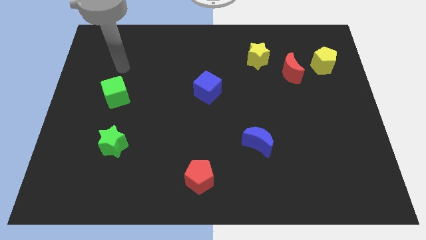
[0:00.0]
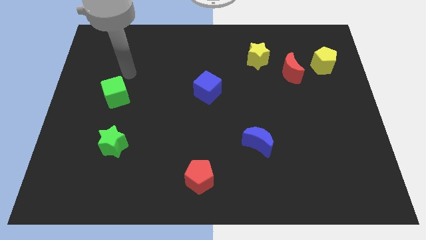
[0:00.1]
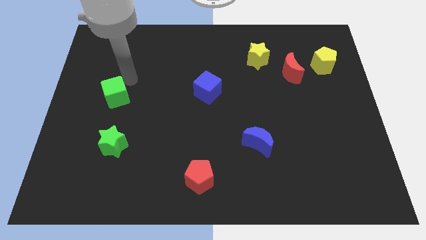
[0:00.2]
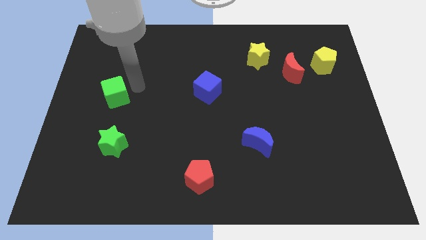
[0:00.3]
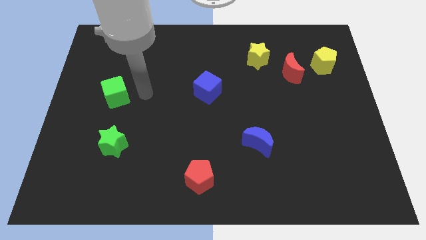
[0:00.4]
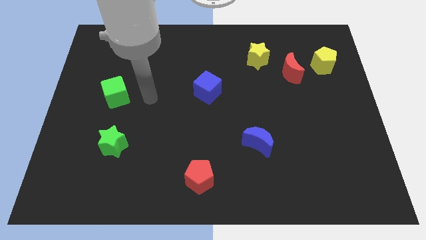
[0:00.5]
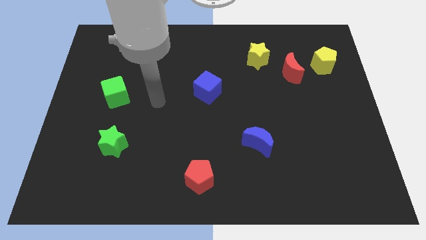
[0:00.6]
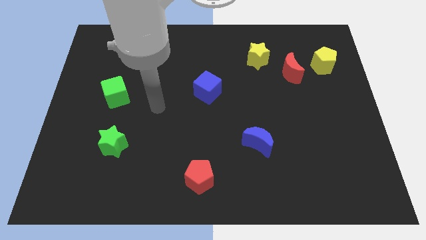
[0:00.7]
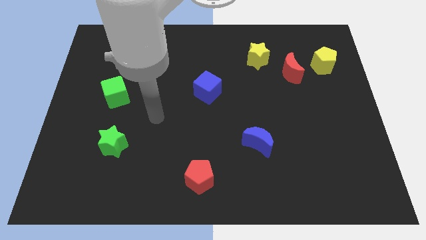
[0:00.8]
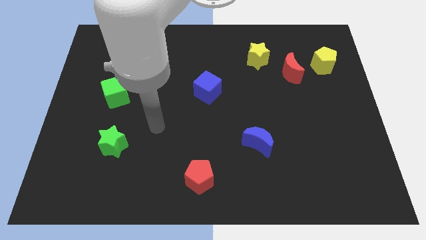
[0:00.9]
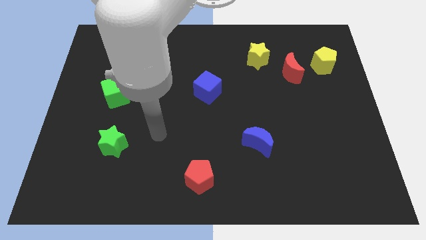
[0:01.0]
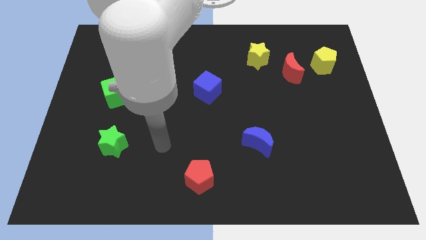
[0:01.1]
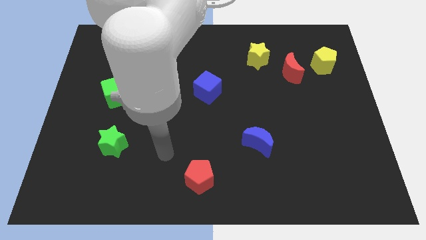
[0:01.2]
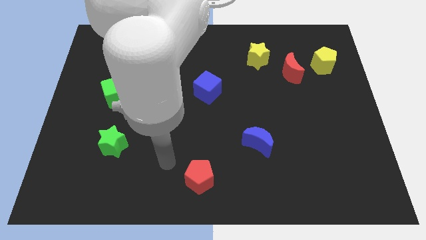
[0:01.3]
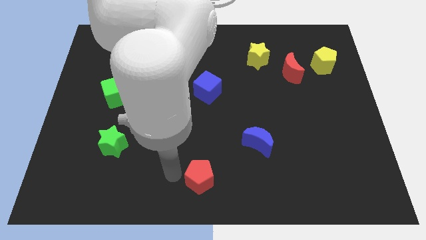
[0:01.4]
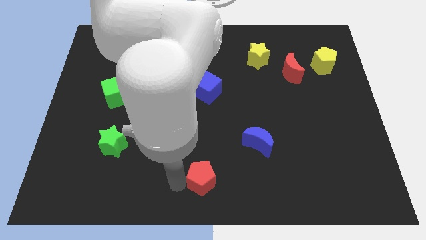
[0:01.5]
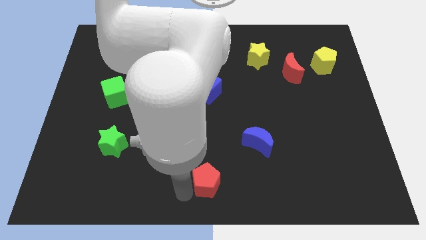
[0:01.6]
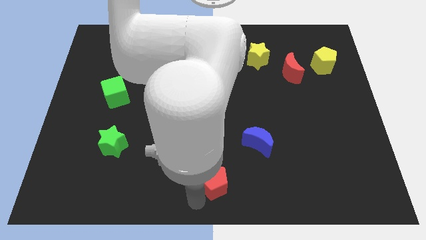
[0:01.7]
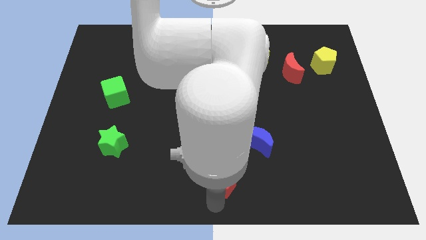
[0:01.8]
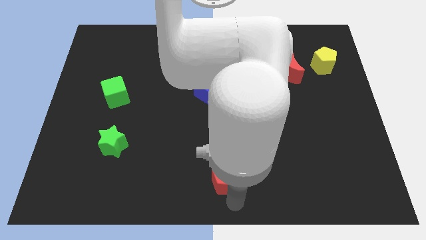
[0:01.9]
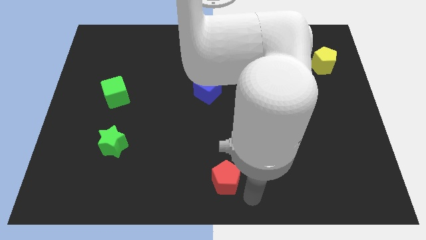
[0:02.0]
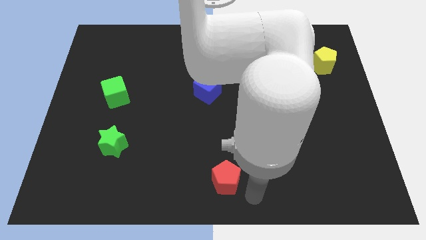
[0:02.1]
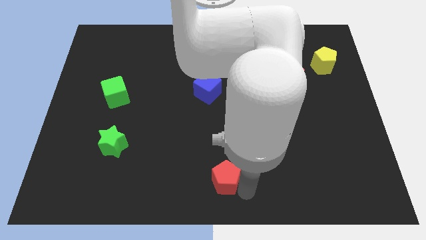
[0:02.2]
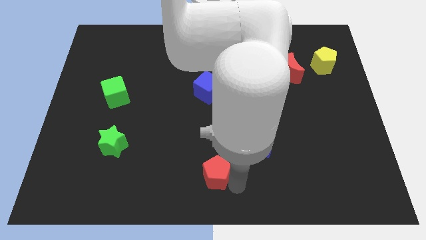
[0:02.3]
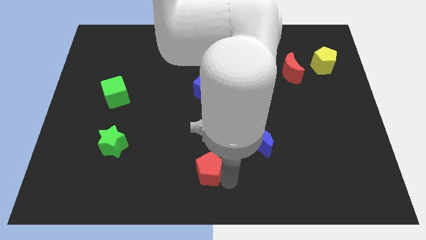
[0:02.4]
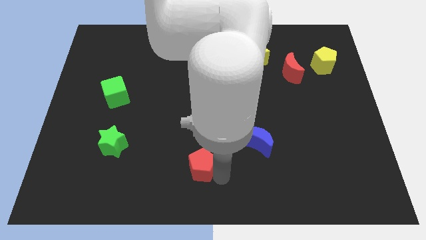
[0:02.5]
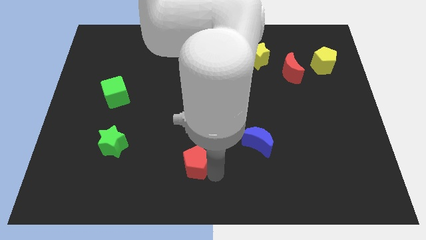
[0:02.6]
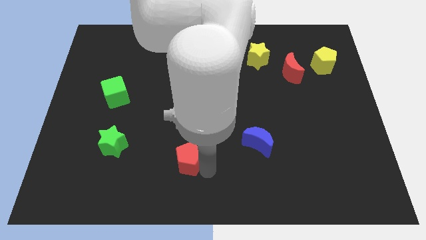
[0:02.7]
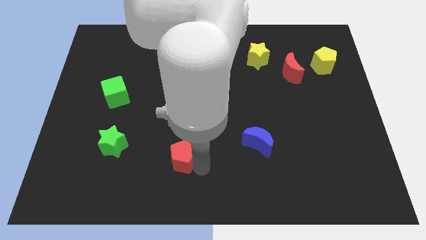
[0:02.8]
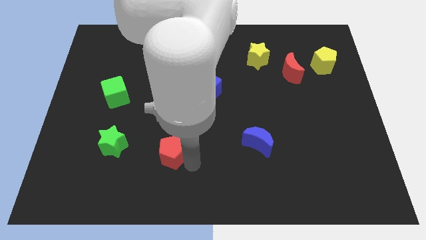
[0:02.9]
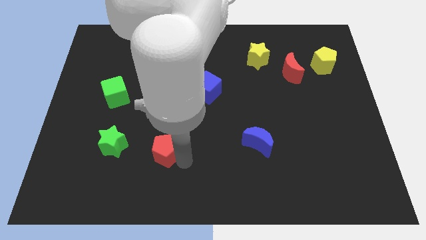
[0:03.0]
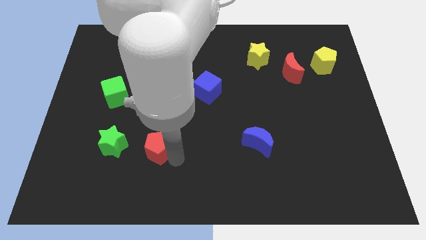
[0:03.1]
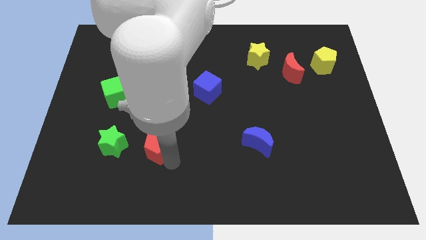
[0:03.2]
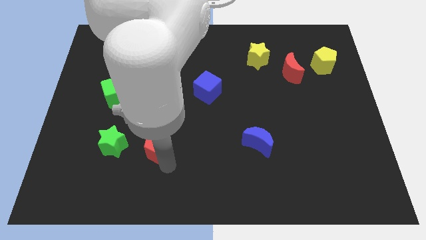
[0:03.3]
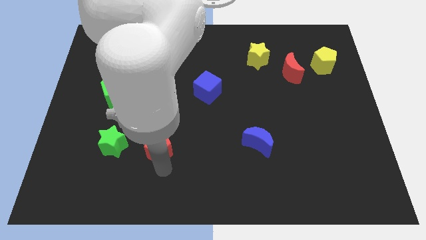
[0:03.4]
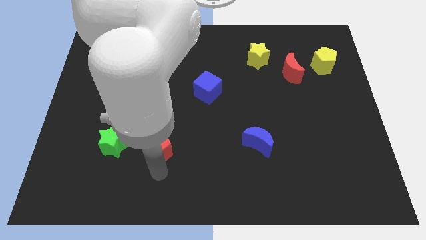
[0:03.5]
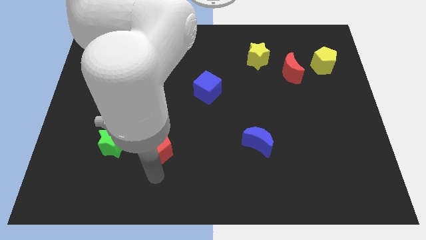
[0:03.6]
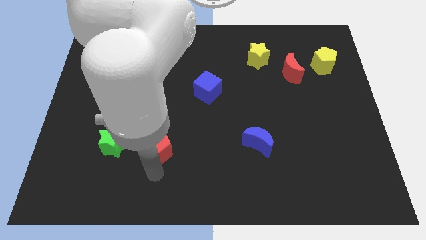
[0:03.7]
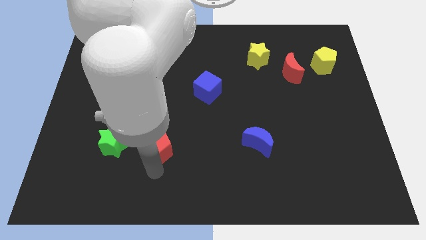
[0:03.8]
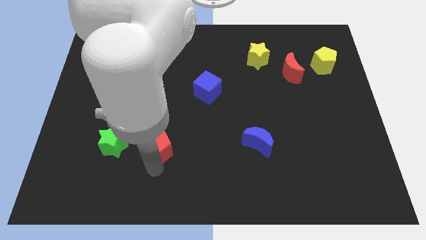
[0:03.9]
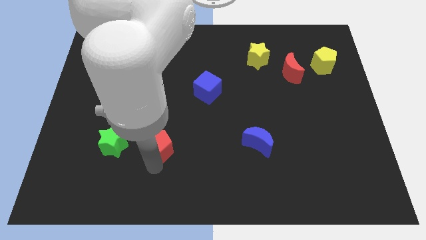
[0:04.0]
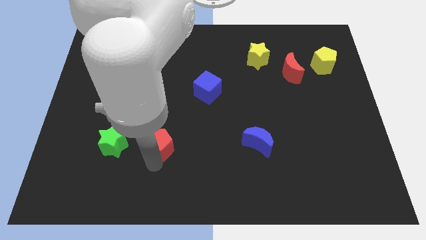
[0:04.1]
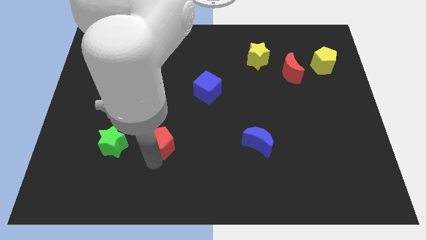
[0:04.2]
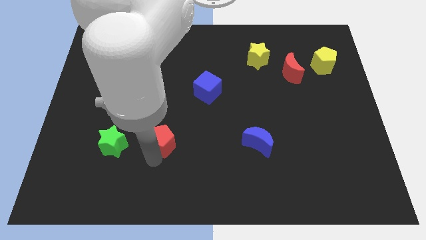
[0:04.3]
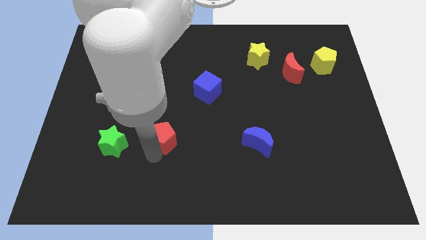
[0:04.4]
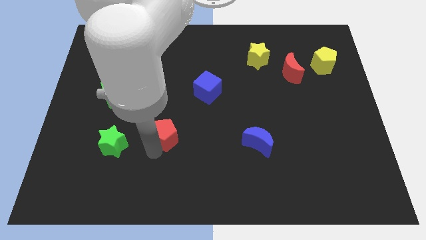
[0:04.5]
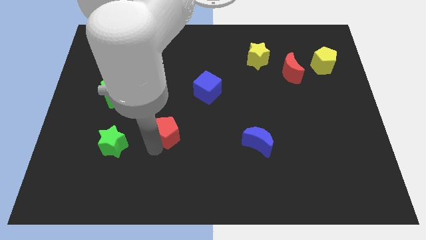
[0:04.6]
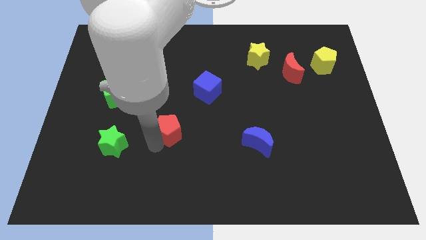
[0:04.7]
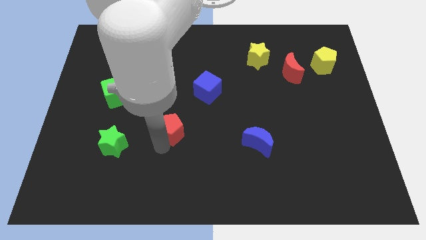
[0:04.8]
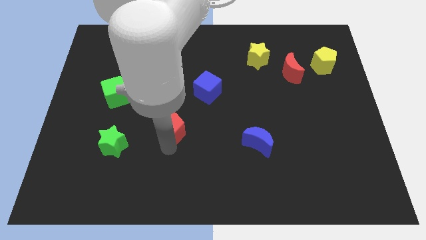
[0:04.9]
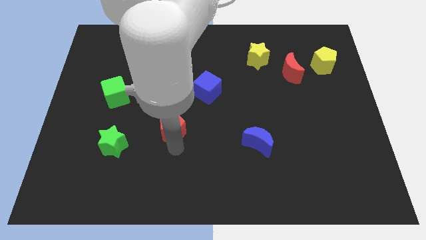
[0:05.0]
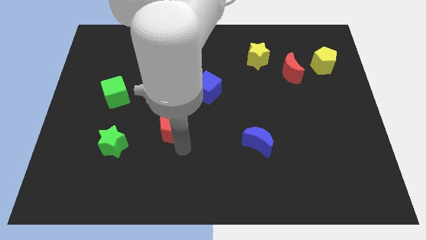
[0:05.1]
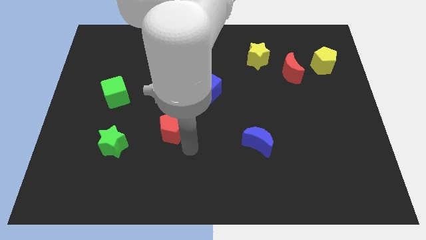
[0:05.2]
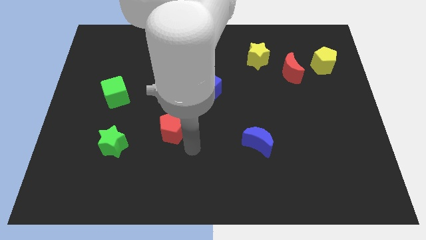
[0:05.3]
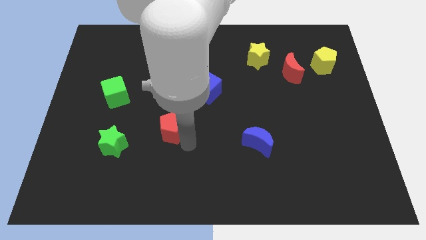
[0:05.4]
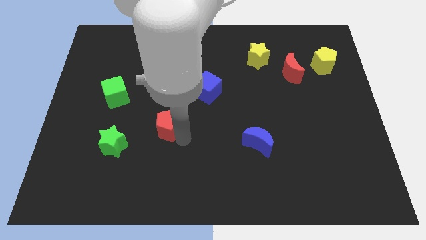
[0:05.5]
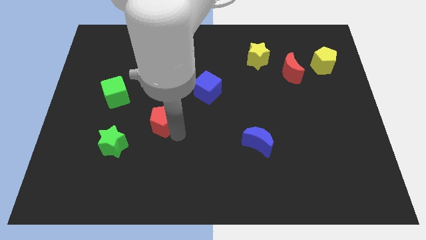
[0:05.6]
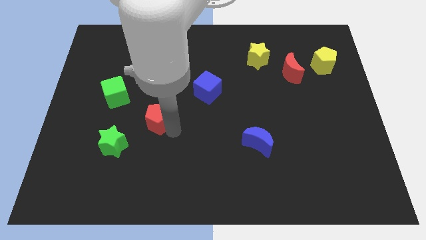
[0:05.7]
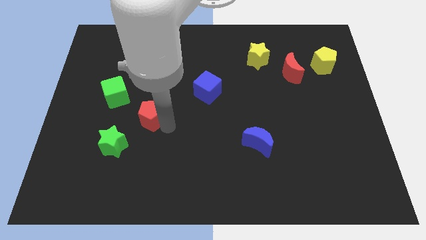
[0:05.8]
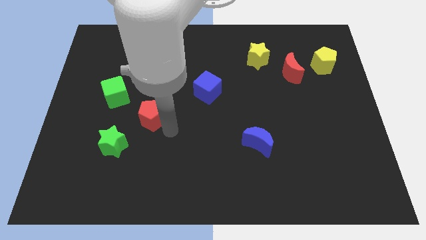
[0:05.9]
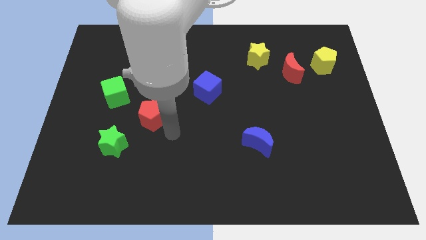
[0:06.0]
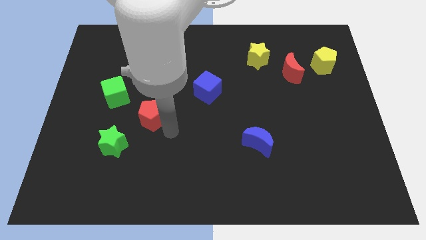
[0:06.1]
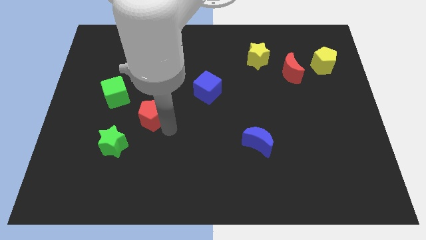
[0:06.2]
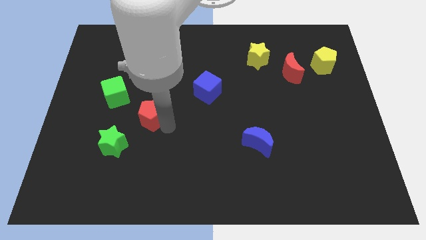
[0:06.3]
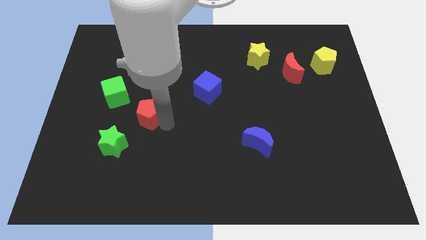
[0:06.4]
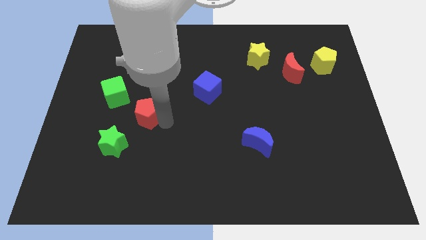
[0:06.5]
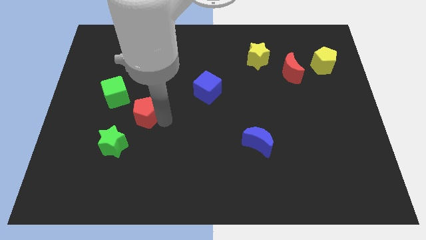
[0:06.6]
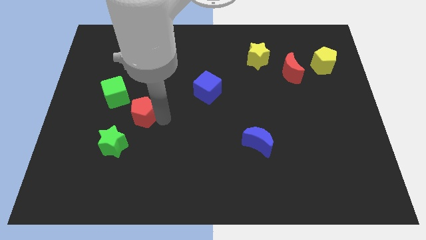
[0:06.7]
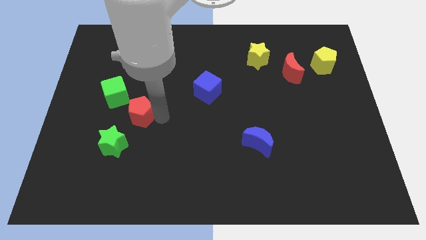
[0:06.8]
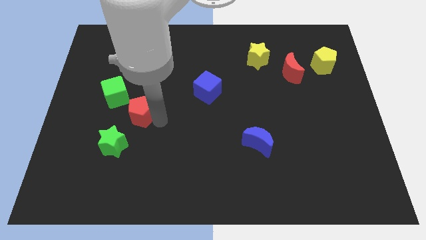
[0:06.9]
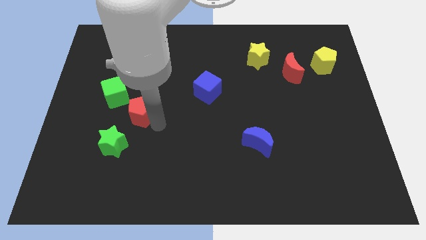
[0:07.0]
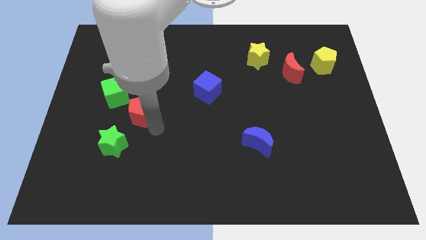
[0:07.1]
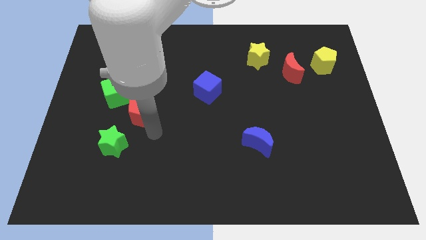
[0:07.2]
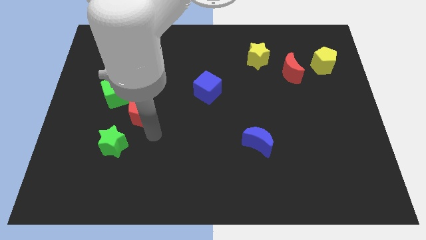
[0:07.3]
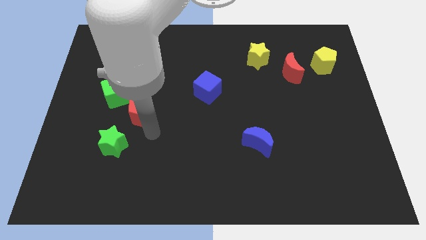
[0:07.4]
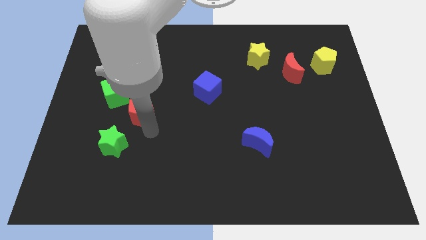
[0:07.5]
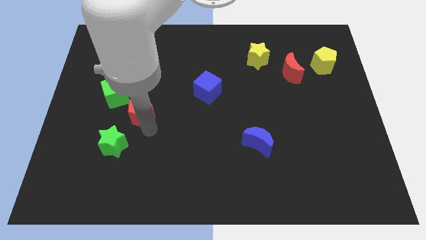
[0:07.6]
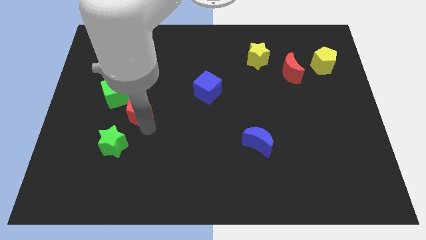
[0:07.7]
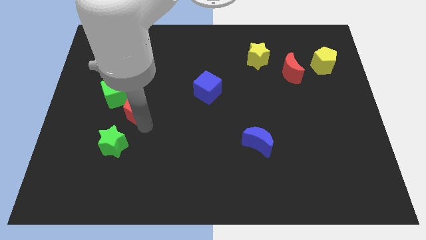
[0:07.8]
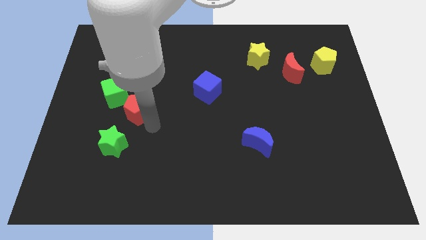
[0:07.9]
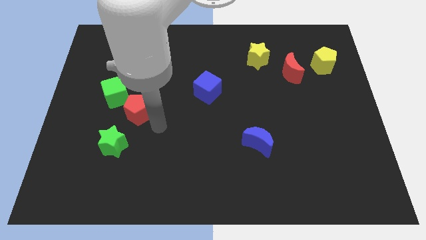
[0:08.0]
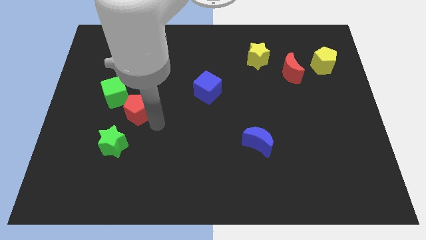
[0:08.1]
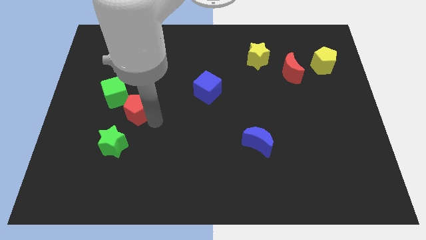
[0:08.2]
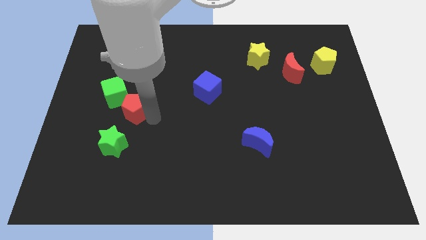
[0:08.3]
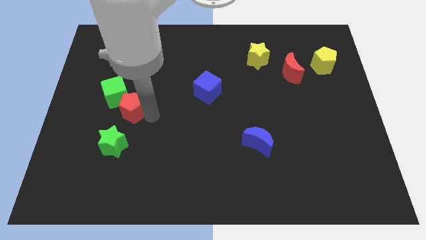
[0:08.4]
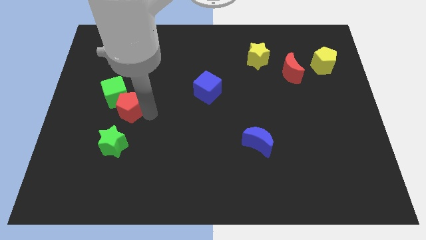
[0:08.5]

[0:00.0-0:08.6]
put the red pentagon close to the green cube
